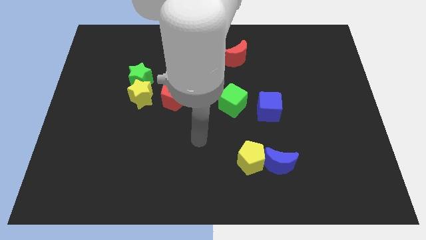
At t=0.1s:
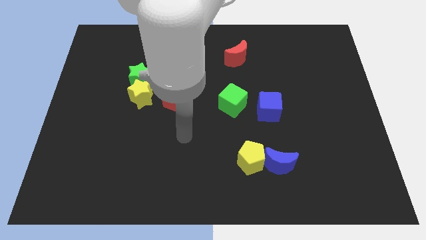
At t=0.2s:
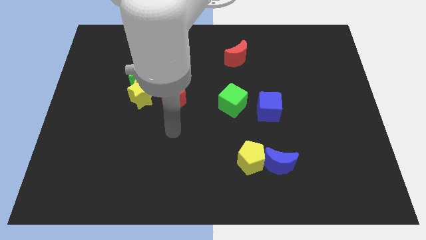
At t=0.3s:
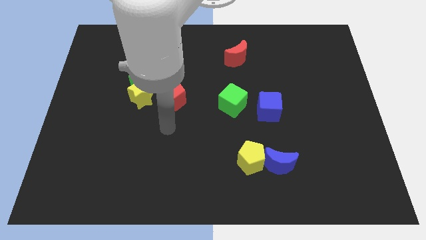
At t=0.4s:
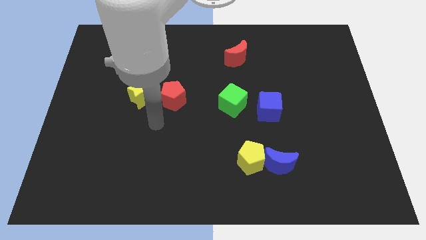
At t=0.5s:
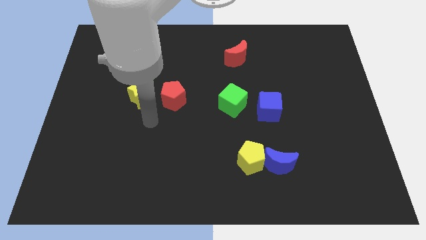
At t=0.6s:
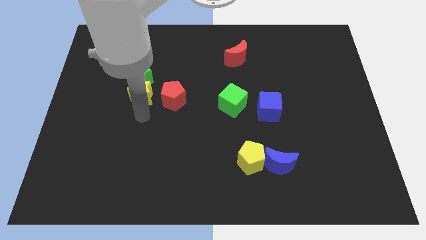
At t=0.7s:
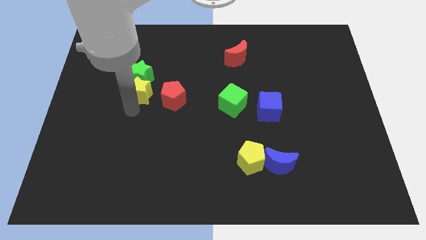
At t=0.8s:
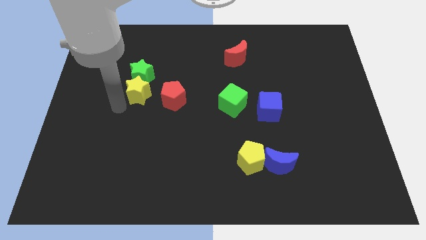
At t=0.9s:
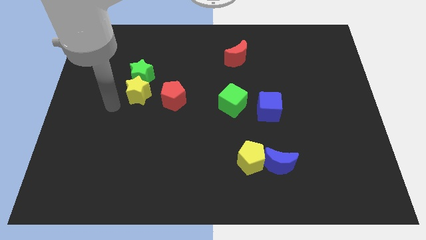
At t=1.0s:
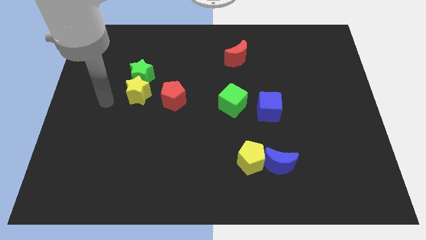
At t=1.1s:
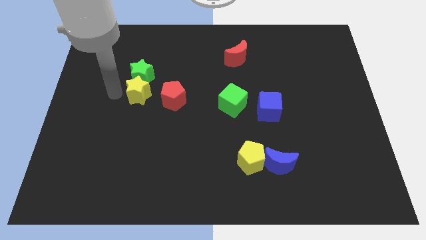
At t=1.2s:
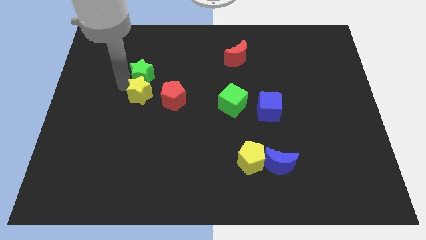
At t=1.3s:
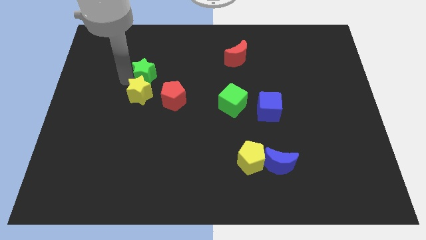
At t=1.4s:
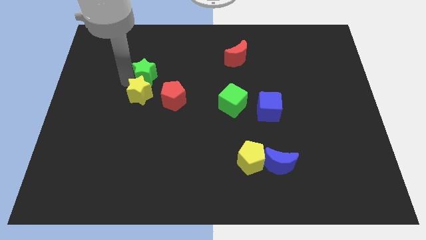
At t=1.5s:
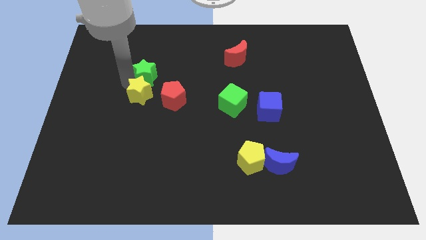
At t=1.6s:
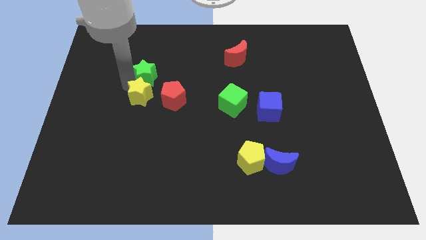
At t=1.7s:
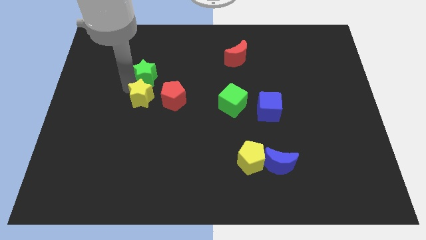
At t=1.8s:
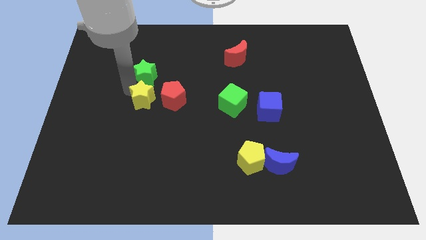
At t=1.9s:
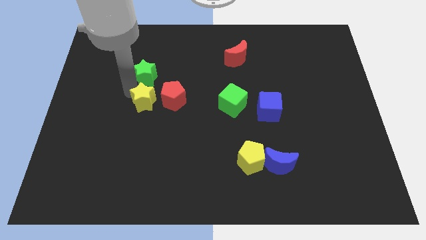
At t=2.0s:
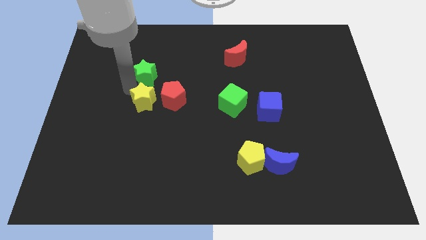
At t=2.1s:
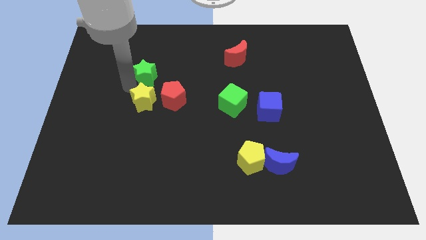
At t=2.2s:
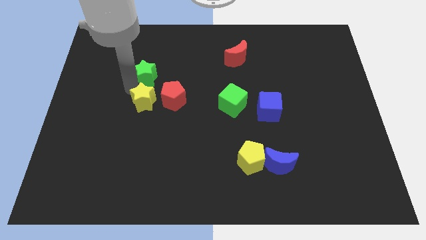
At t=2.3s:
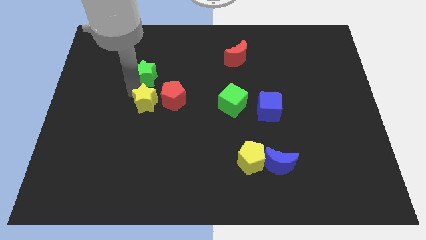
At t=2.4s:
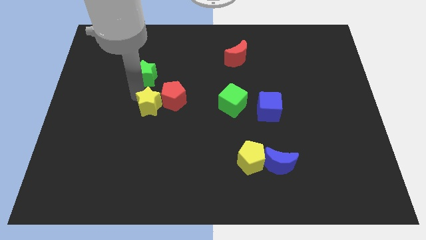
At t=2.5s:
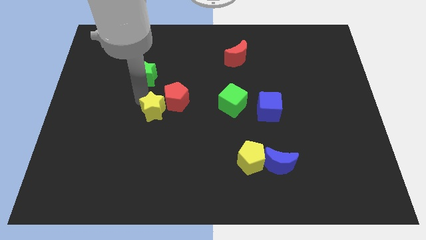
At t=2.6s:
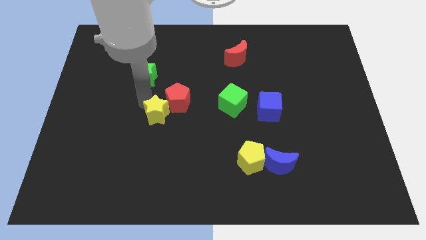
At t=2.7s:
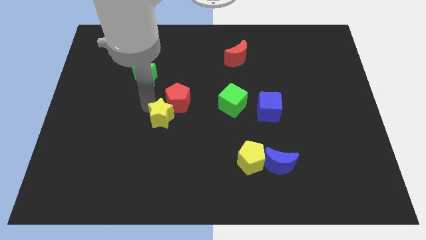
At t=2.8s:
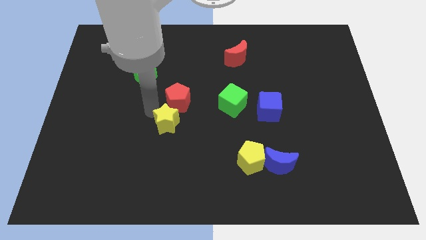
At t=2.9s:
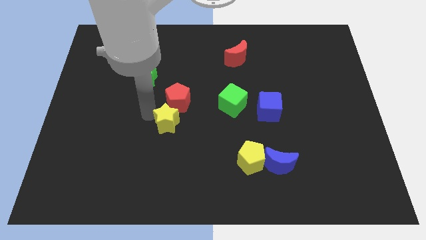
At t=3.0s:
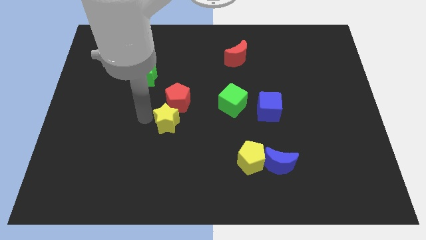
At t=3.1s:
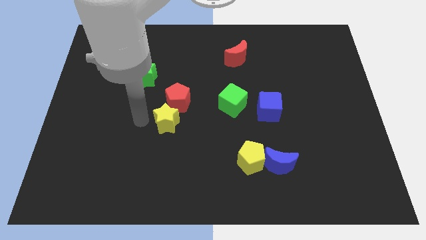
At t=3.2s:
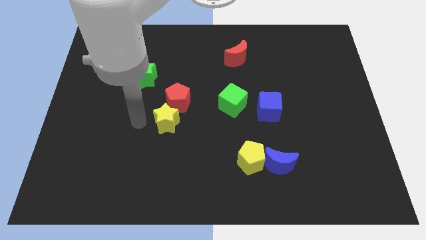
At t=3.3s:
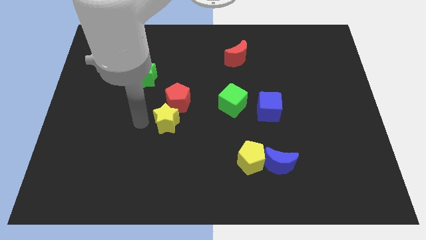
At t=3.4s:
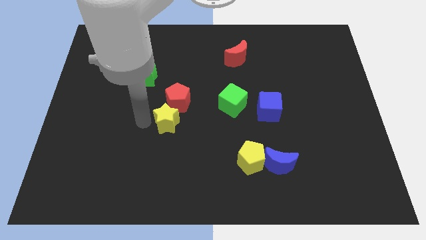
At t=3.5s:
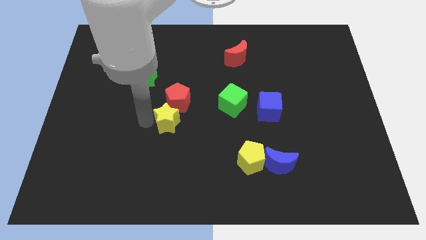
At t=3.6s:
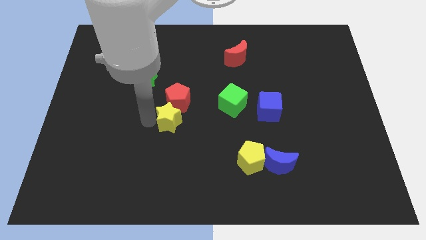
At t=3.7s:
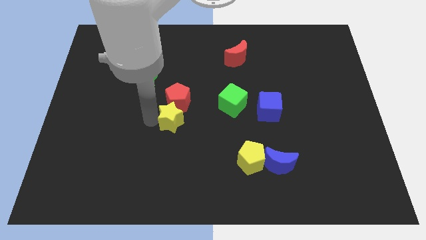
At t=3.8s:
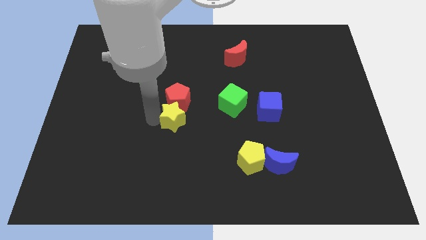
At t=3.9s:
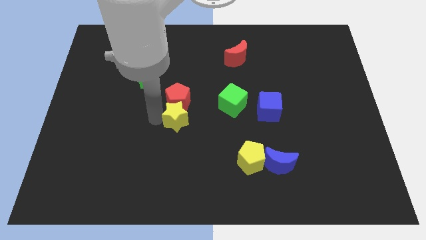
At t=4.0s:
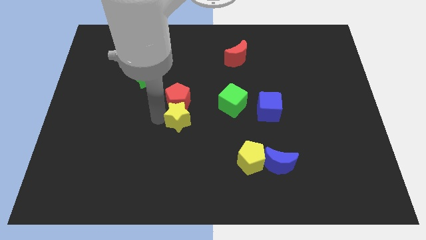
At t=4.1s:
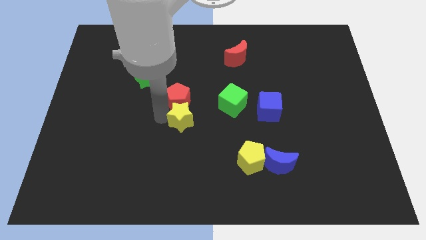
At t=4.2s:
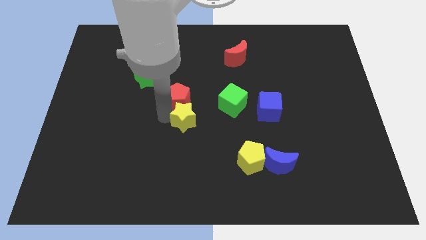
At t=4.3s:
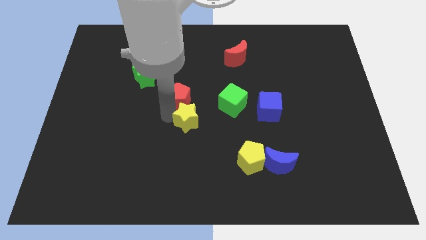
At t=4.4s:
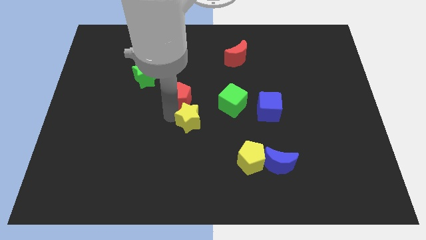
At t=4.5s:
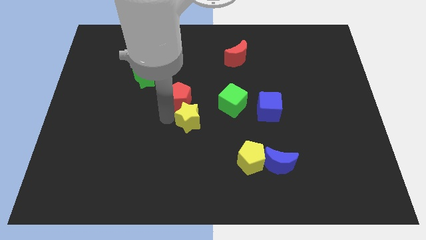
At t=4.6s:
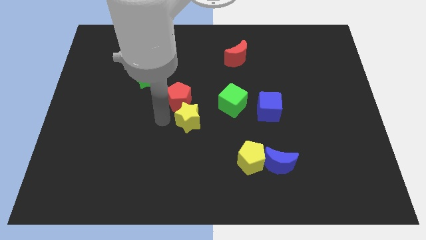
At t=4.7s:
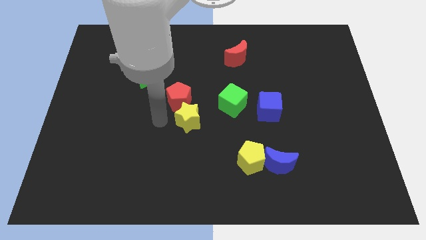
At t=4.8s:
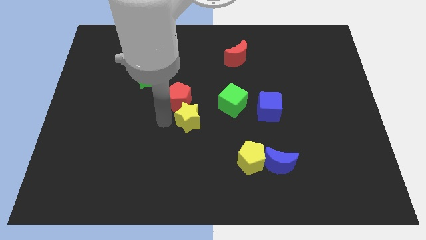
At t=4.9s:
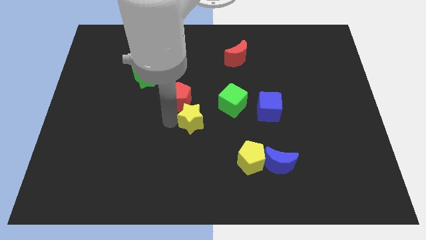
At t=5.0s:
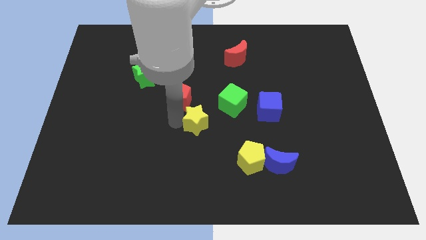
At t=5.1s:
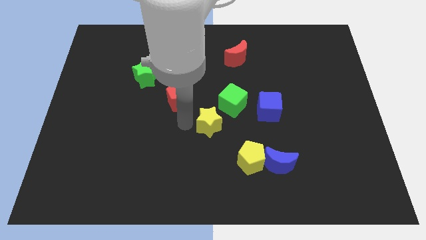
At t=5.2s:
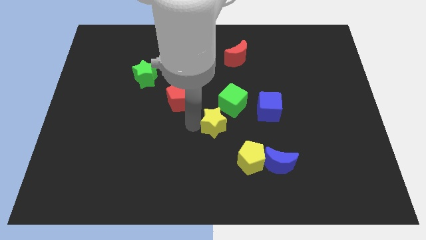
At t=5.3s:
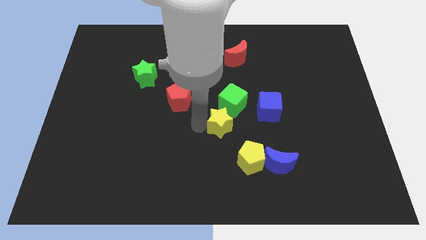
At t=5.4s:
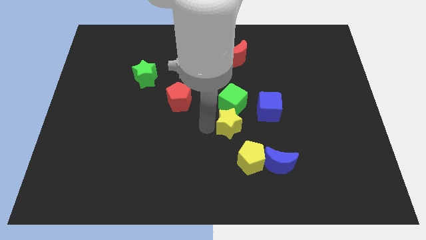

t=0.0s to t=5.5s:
push the yellow star above the yellow pentagon

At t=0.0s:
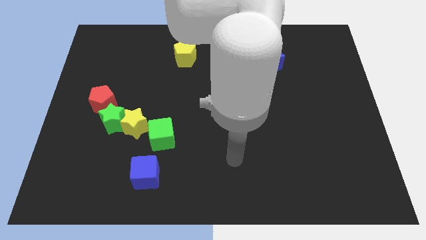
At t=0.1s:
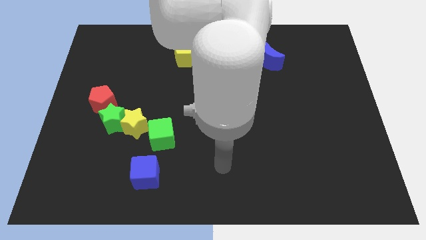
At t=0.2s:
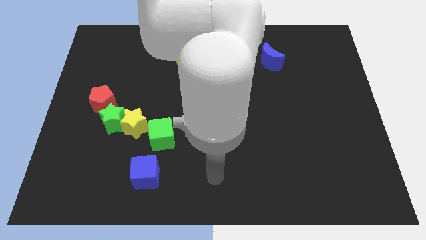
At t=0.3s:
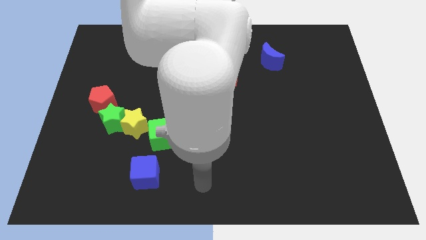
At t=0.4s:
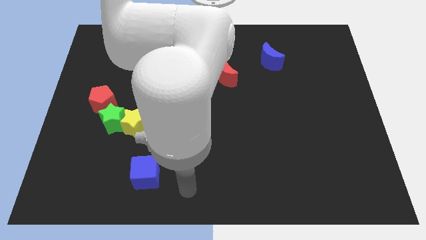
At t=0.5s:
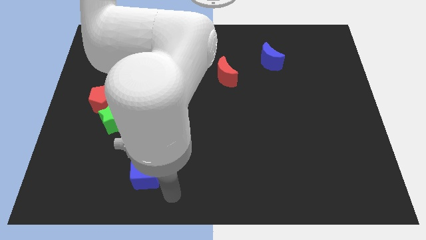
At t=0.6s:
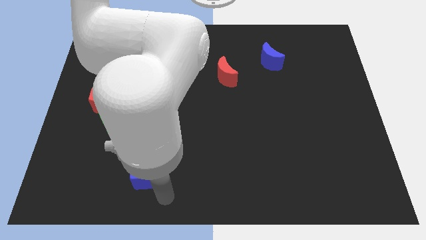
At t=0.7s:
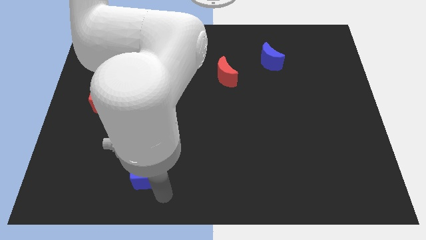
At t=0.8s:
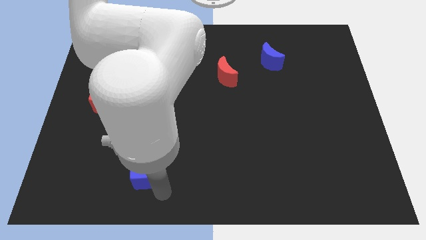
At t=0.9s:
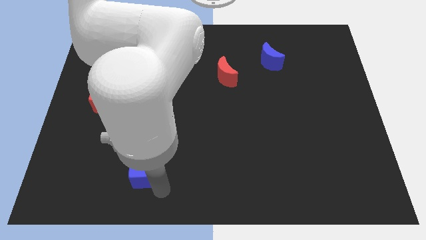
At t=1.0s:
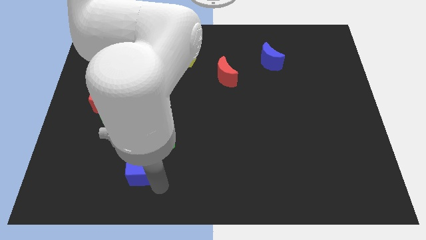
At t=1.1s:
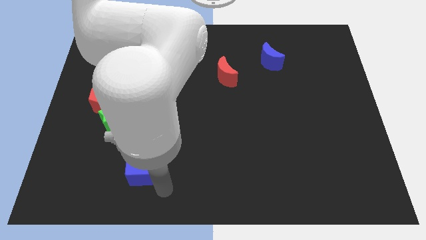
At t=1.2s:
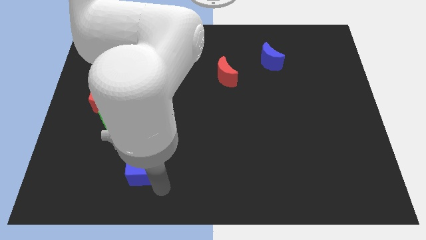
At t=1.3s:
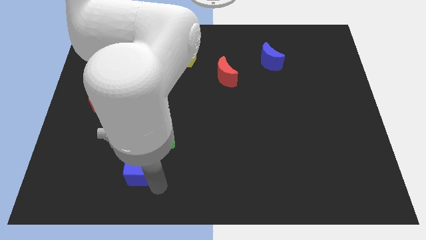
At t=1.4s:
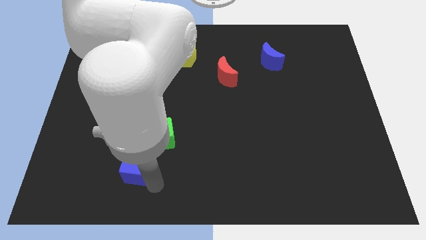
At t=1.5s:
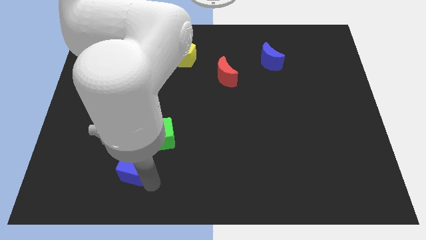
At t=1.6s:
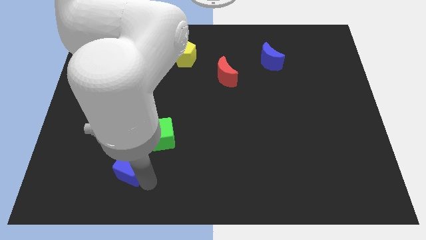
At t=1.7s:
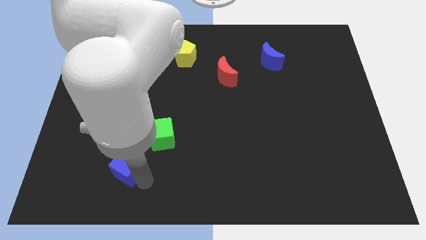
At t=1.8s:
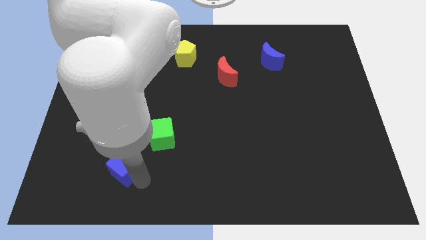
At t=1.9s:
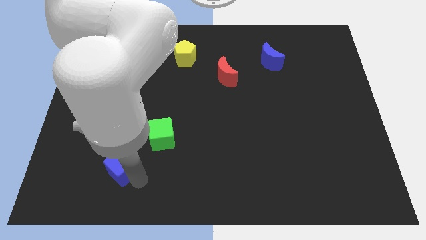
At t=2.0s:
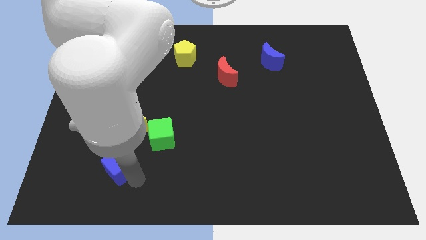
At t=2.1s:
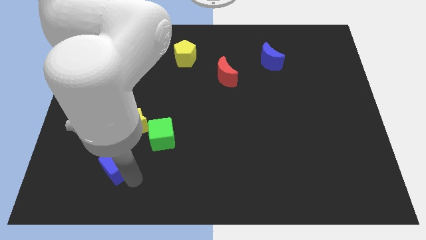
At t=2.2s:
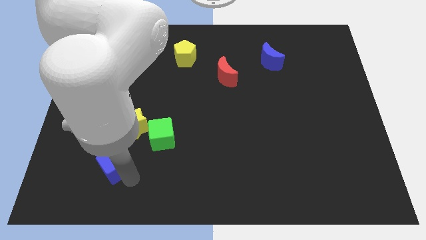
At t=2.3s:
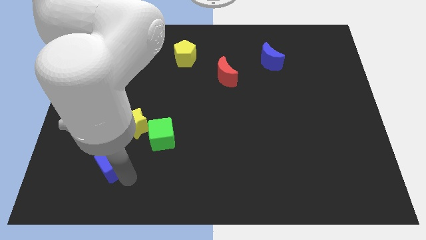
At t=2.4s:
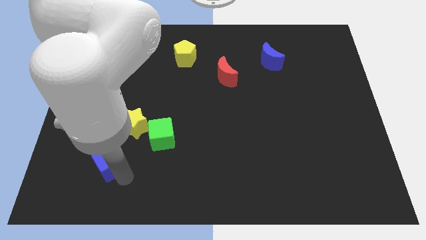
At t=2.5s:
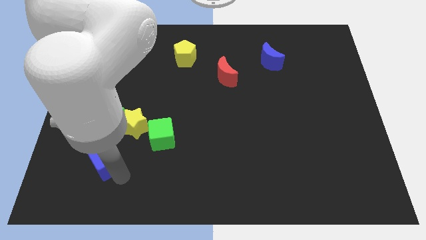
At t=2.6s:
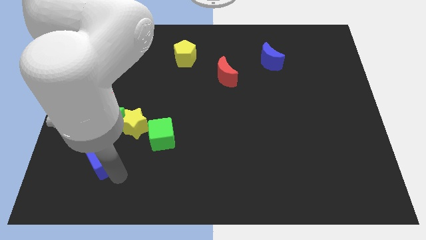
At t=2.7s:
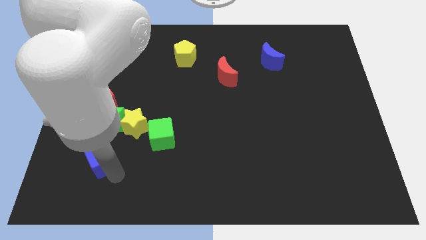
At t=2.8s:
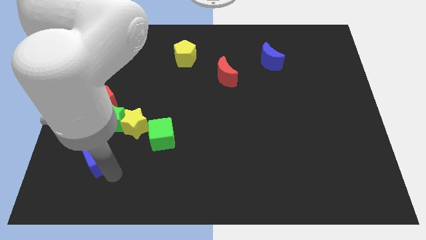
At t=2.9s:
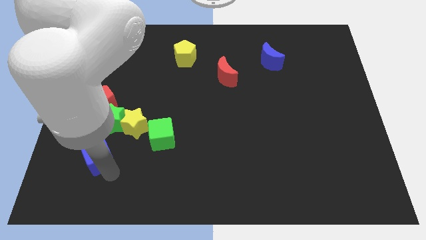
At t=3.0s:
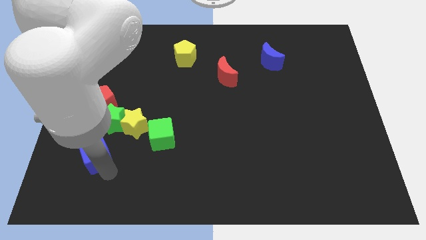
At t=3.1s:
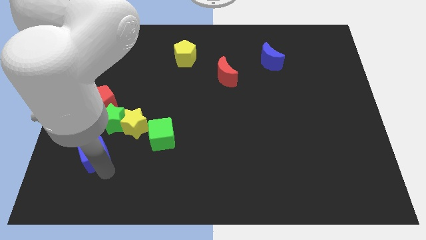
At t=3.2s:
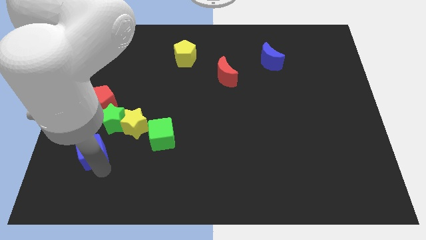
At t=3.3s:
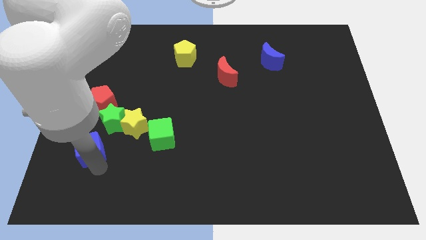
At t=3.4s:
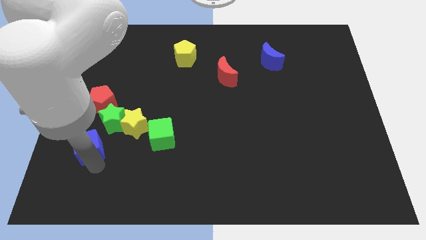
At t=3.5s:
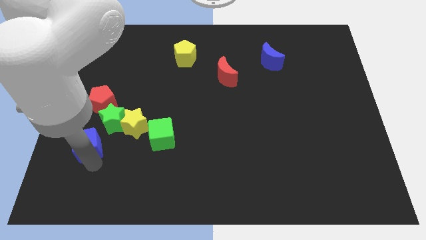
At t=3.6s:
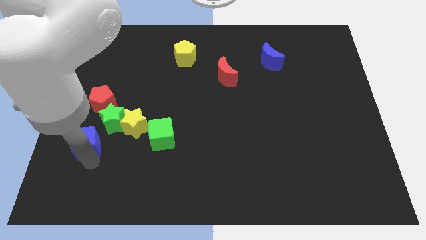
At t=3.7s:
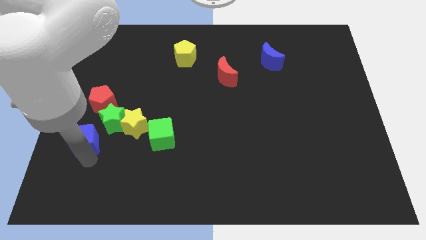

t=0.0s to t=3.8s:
put the blue cube to the left side of the yellow star
